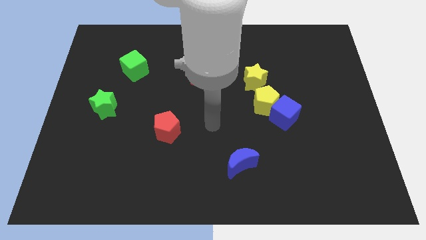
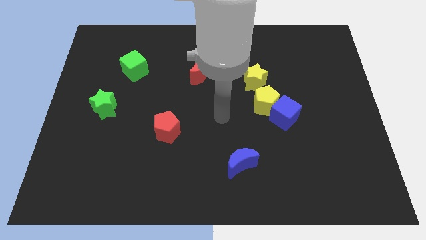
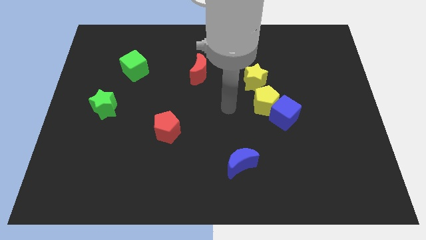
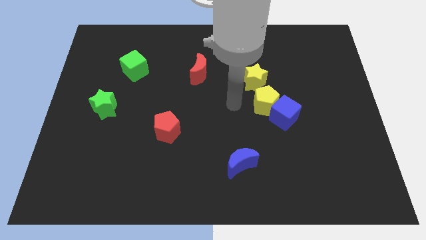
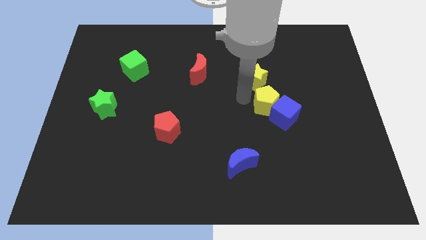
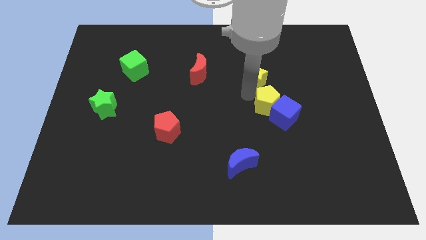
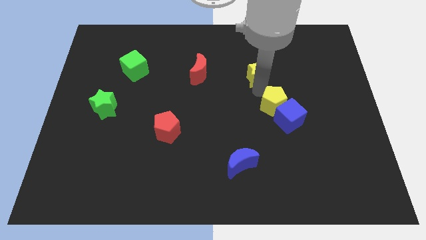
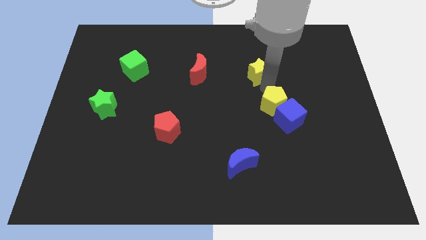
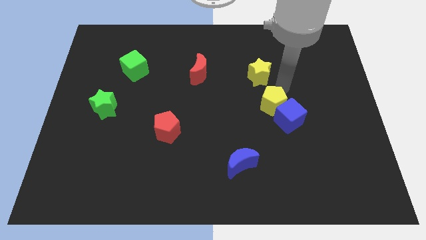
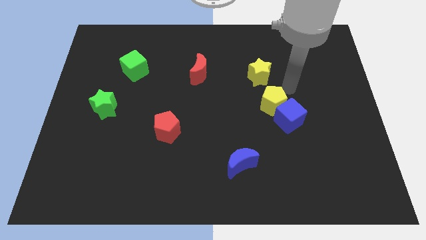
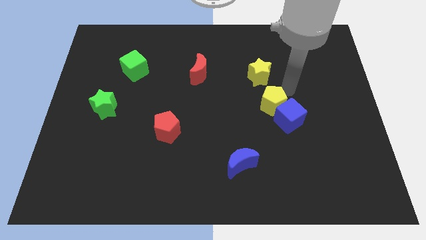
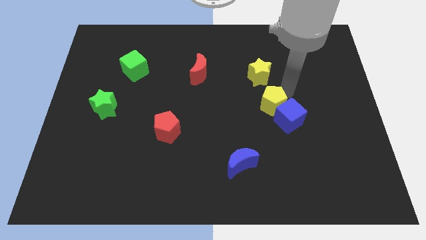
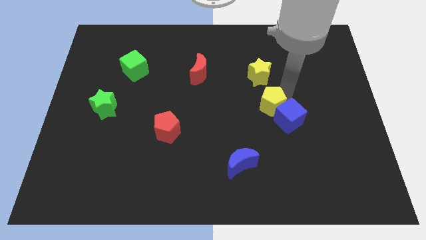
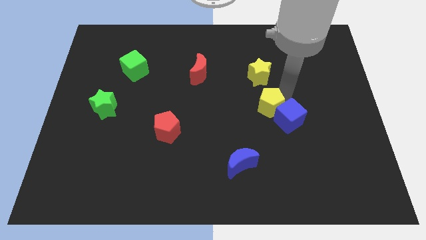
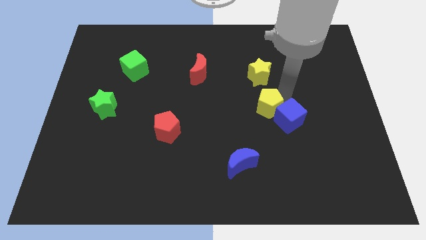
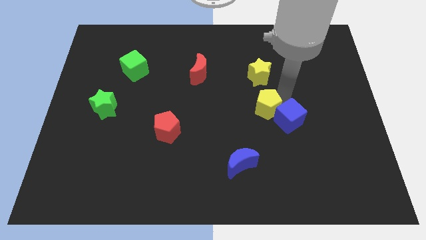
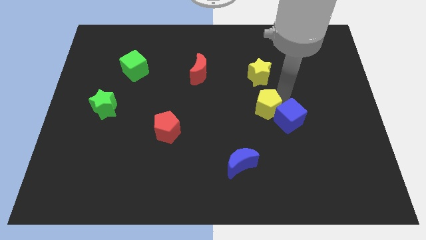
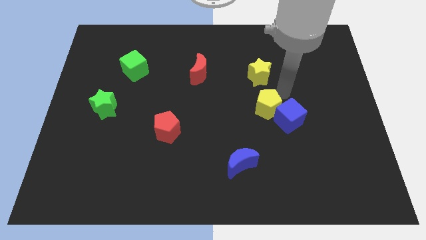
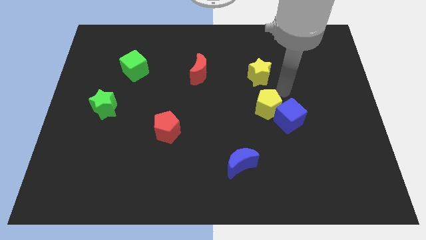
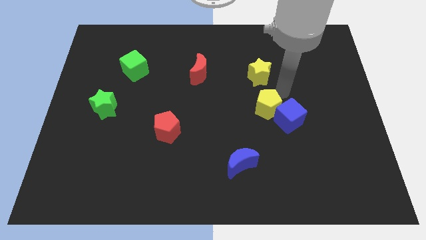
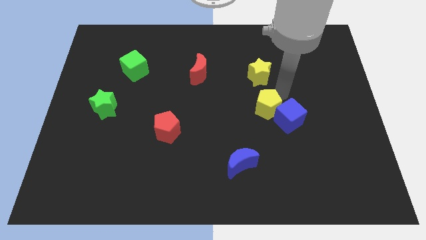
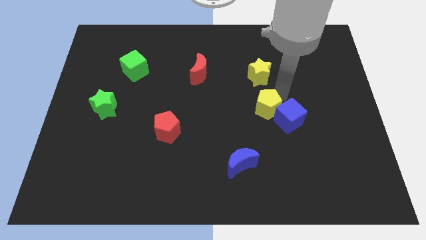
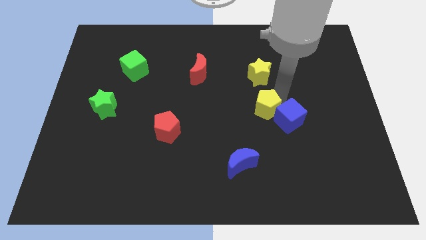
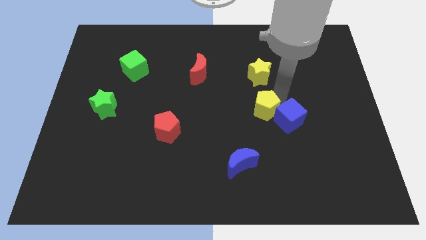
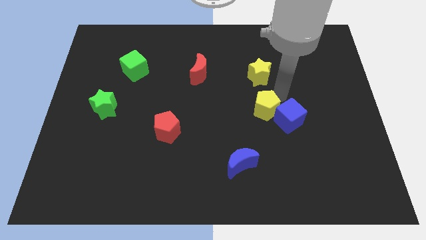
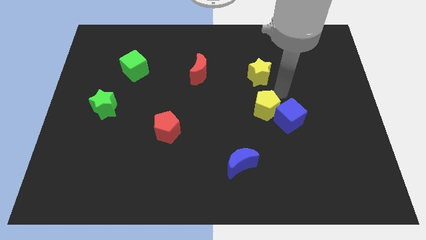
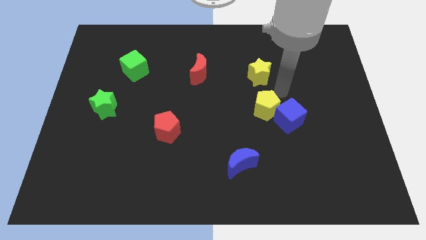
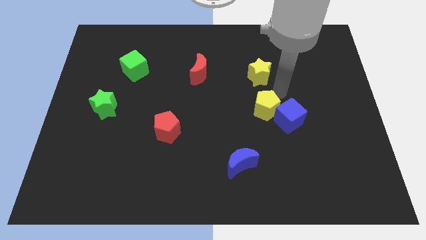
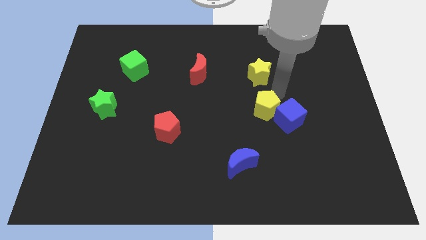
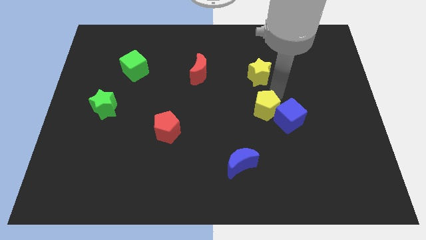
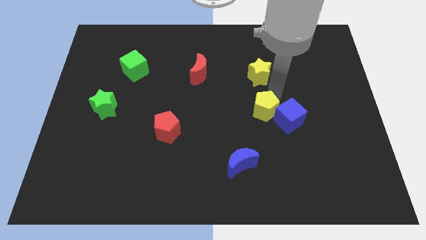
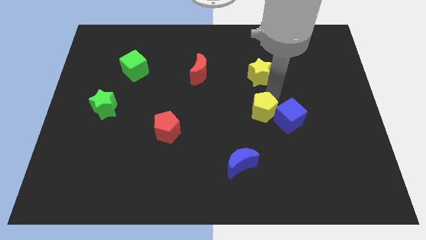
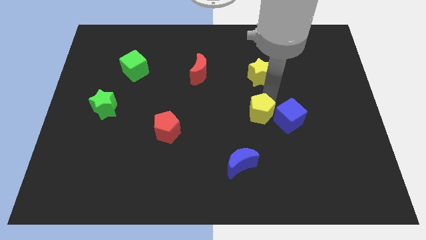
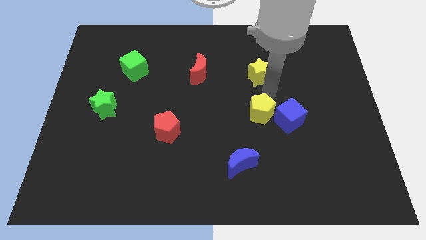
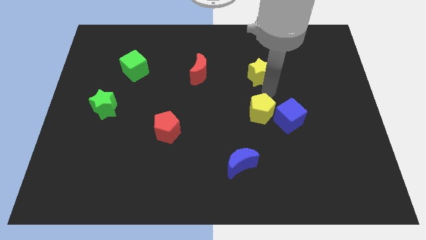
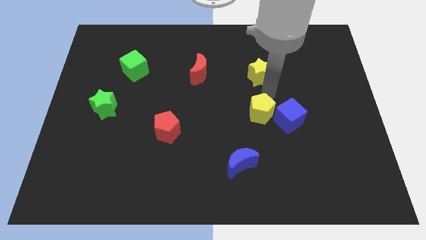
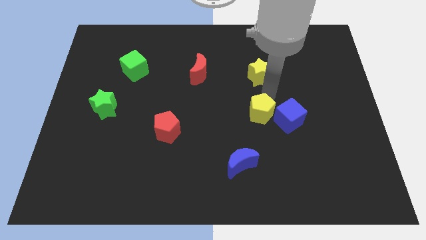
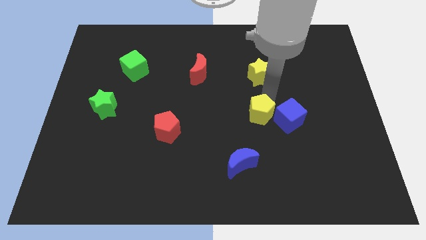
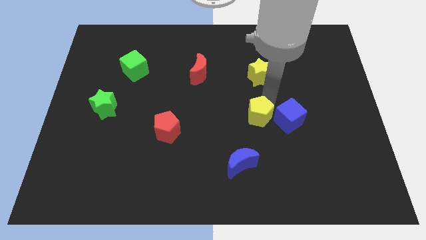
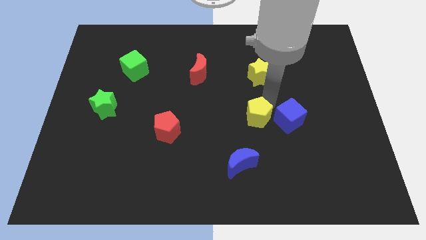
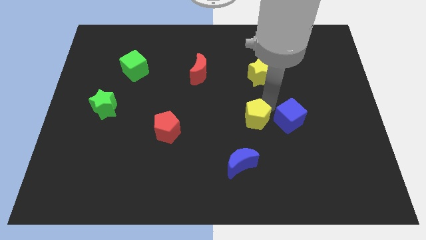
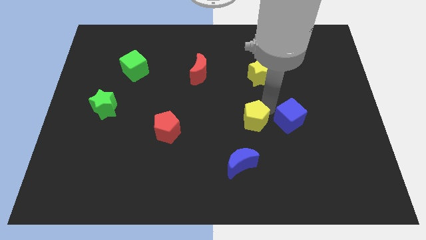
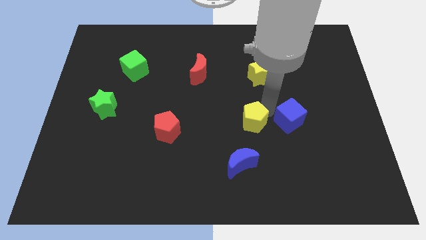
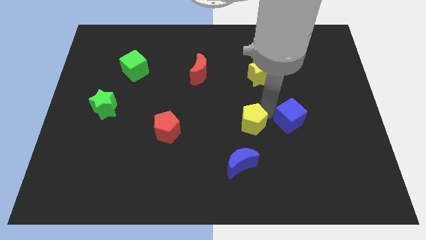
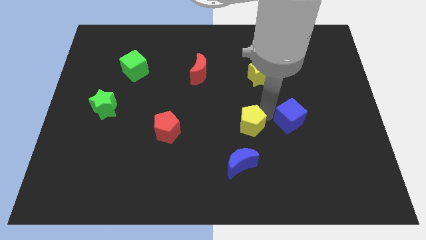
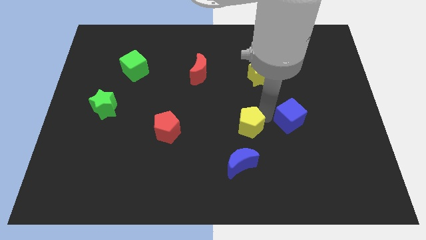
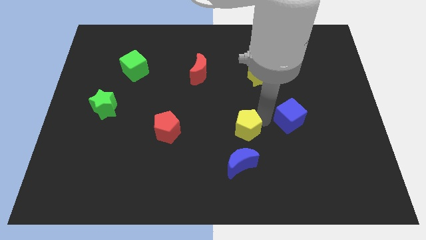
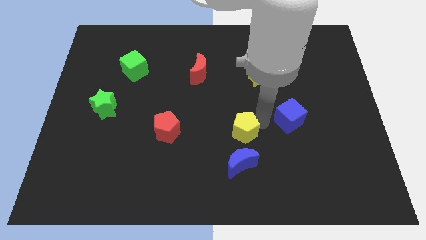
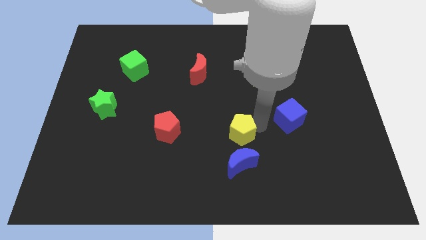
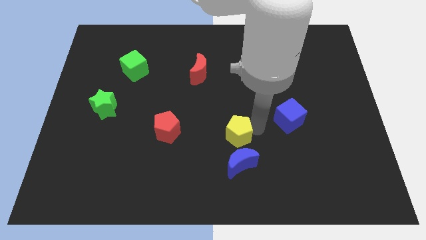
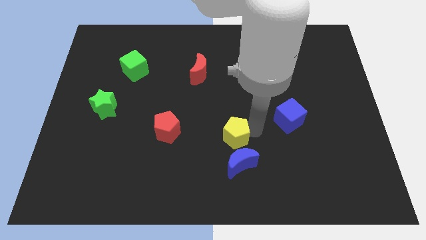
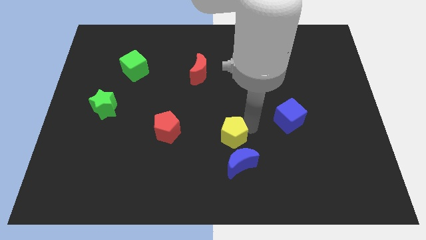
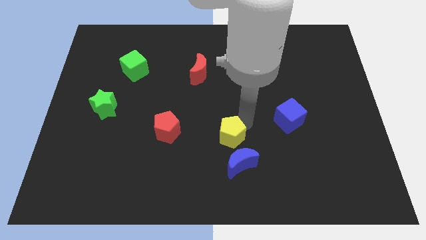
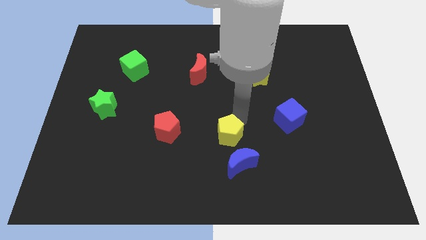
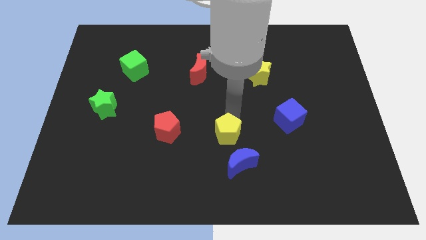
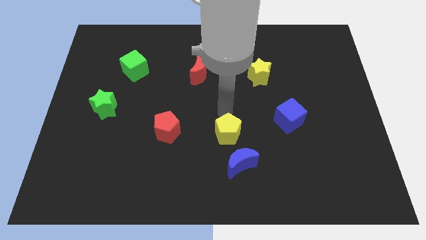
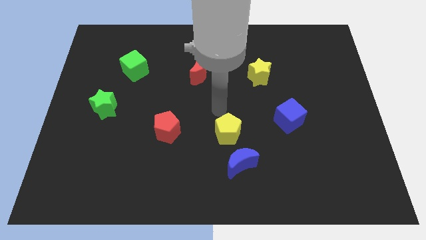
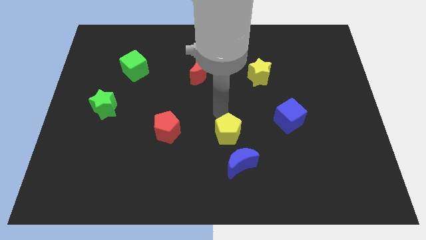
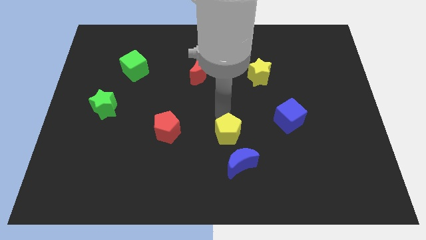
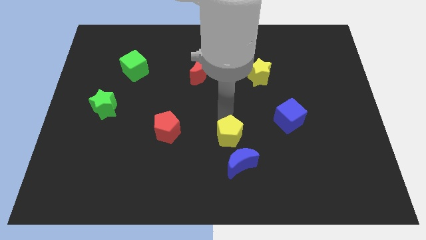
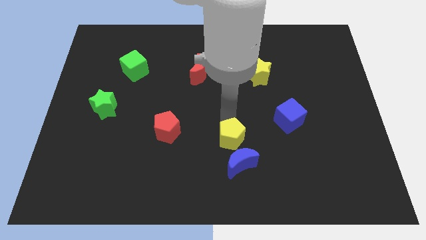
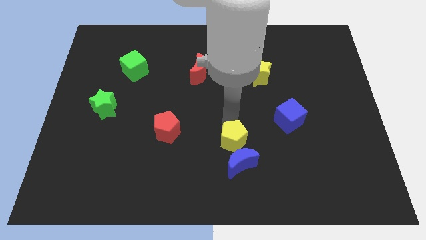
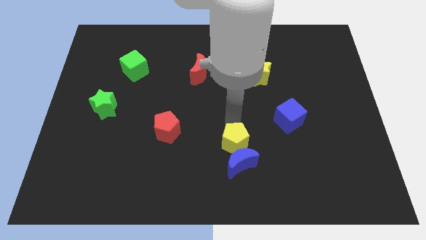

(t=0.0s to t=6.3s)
put the yellow pentagon close to the blue moon

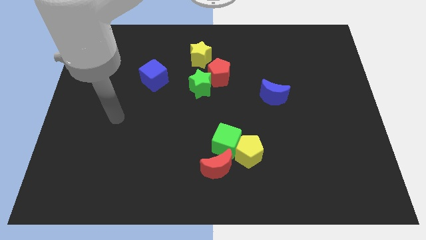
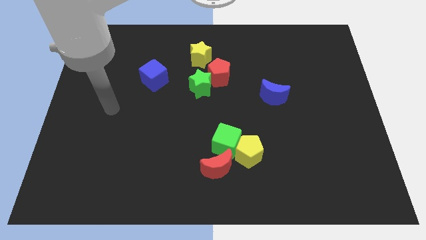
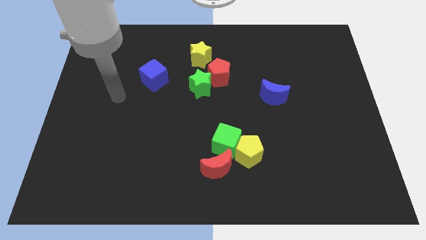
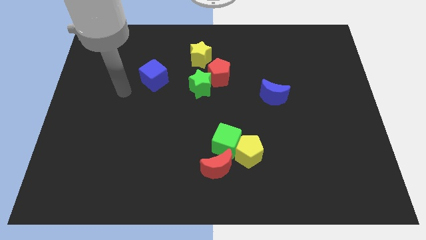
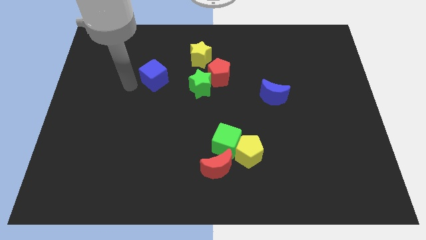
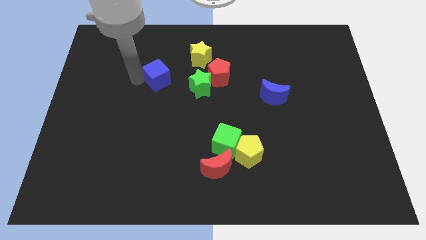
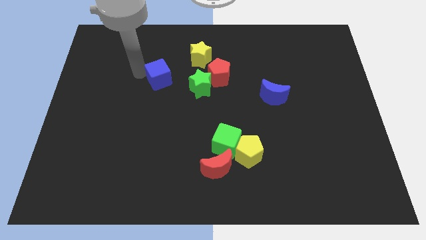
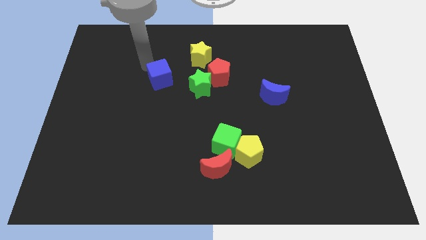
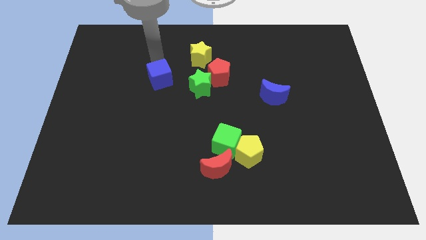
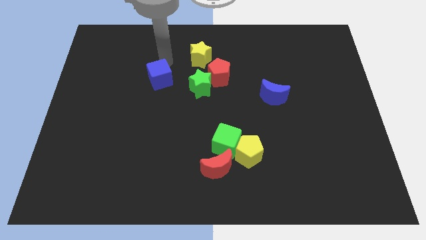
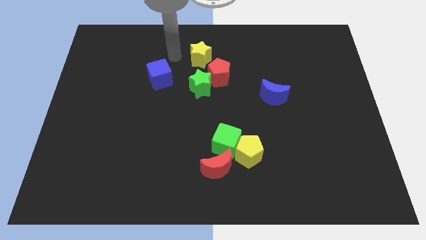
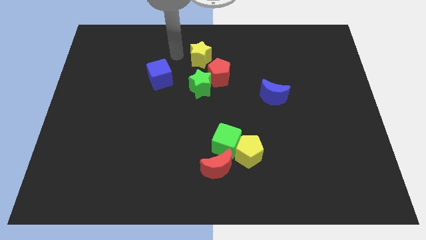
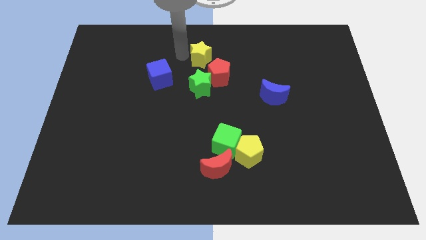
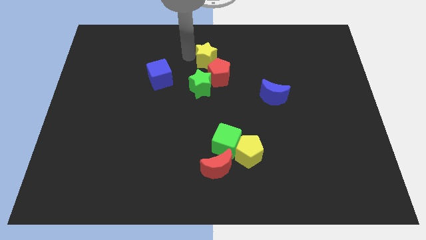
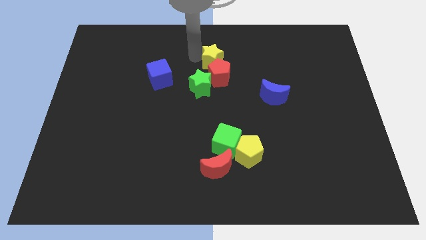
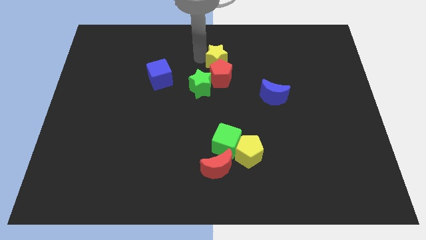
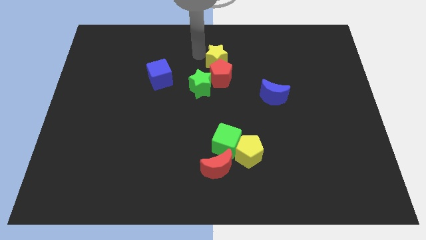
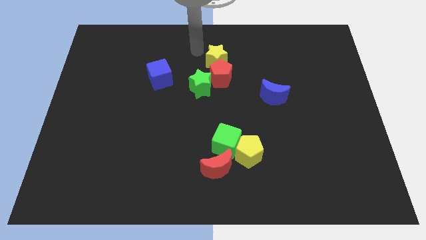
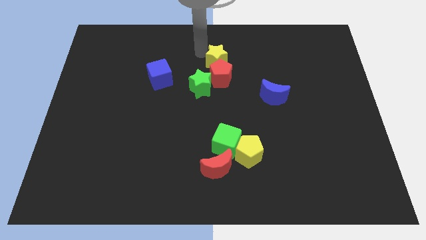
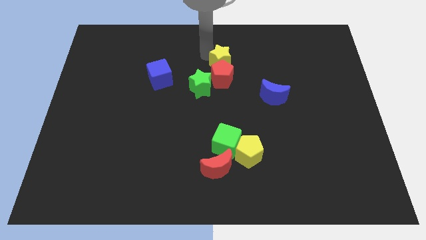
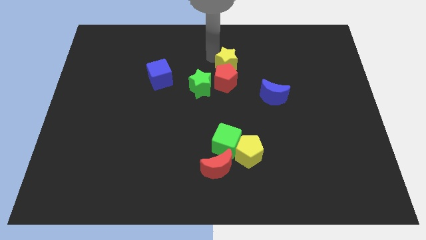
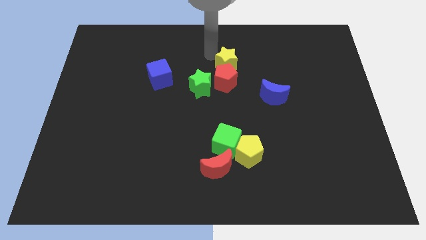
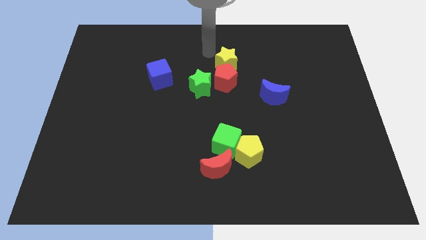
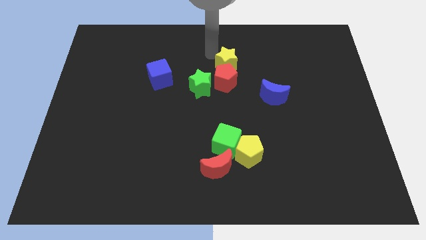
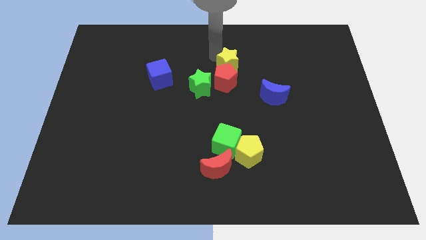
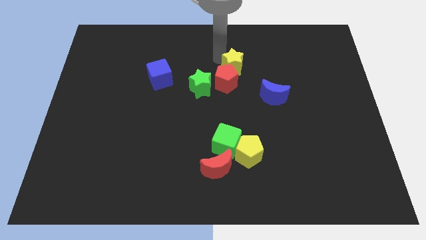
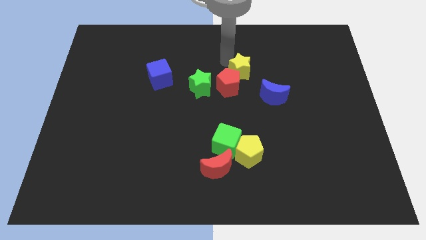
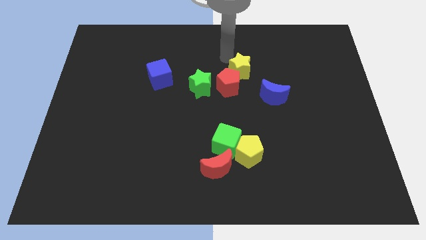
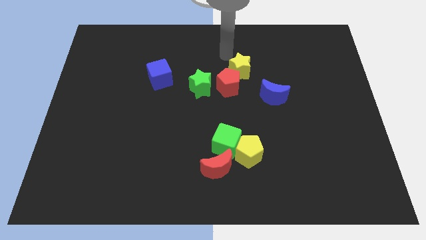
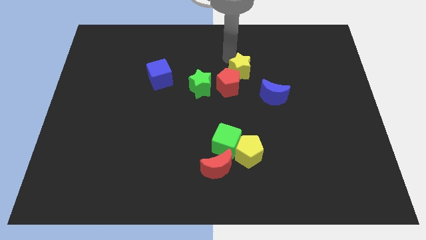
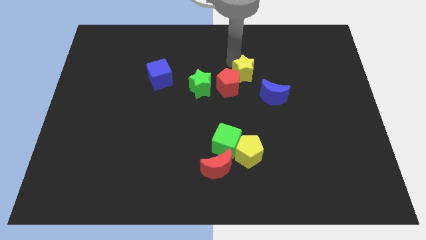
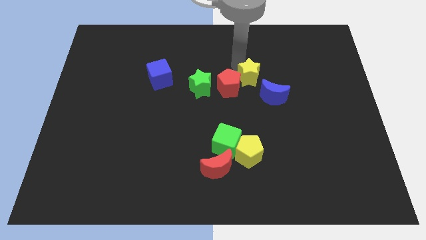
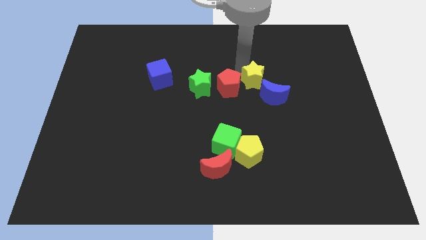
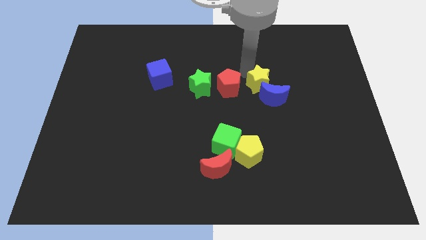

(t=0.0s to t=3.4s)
put the yellow star towards the blue moon
